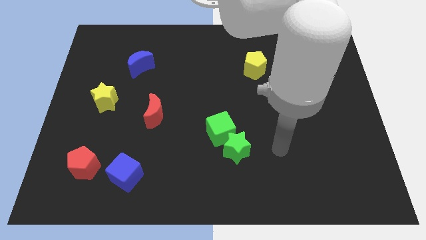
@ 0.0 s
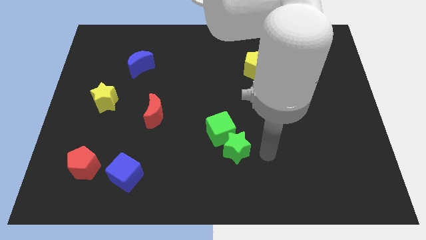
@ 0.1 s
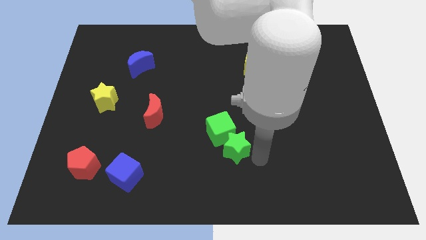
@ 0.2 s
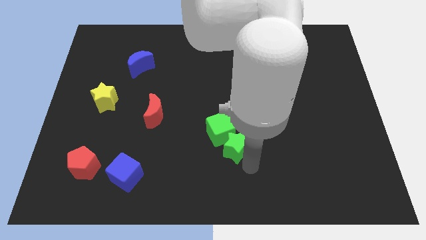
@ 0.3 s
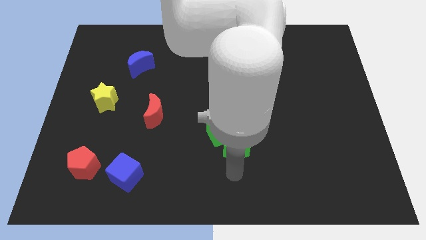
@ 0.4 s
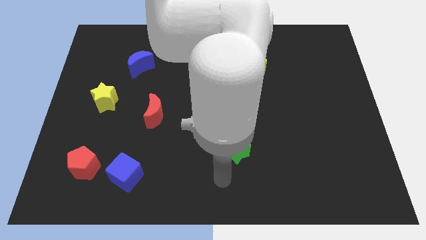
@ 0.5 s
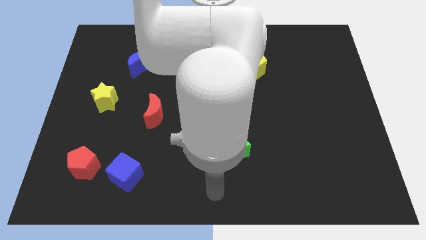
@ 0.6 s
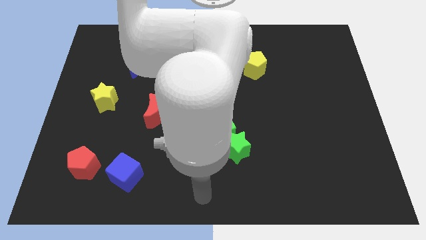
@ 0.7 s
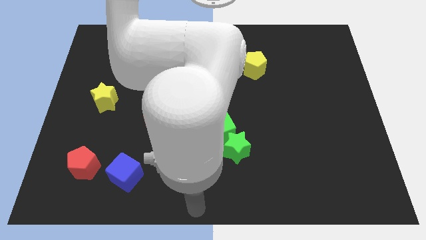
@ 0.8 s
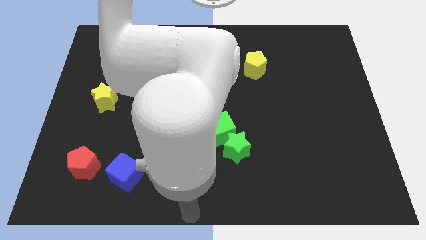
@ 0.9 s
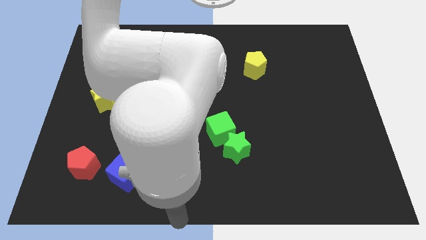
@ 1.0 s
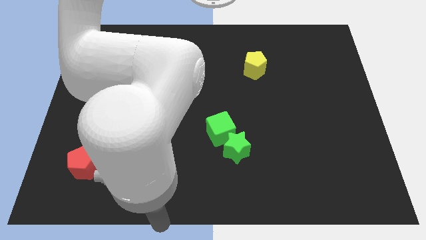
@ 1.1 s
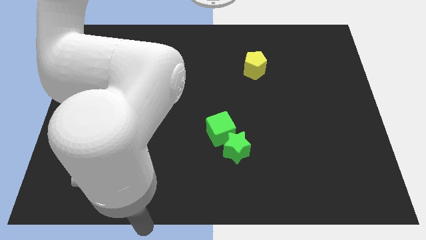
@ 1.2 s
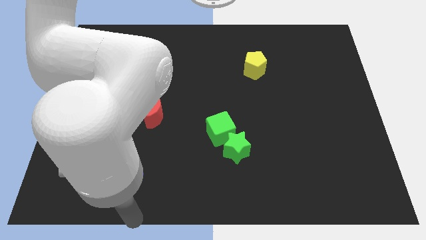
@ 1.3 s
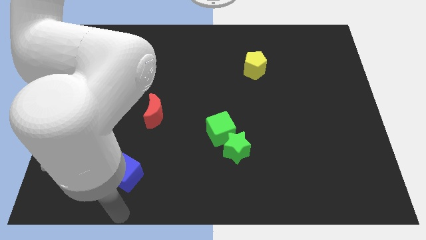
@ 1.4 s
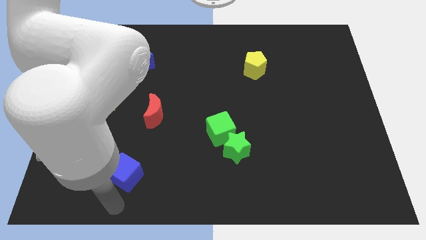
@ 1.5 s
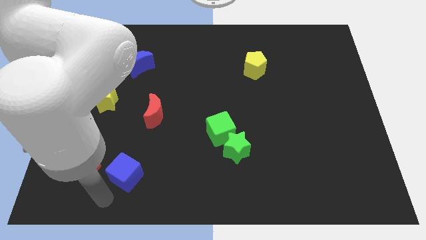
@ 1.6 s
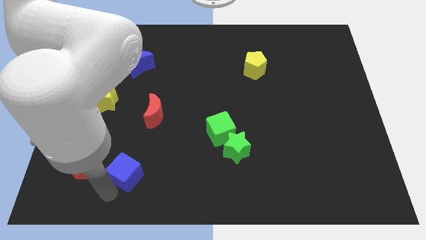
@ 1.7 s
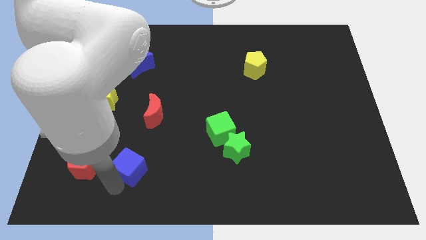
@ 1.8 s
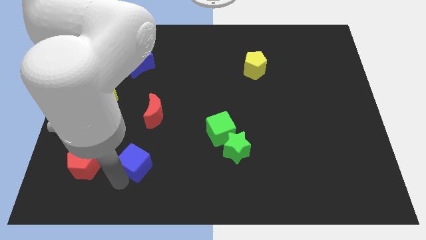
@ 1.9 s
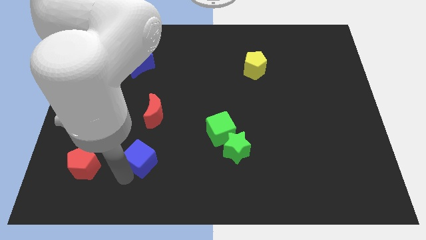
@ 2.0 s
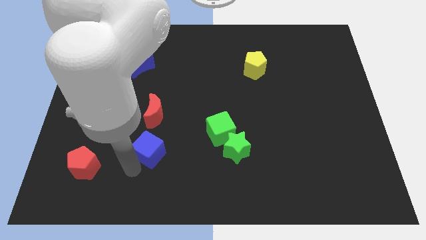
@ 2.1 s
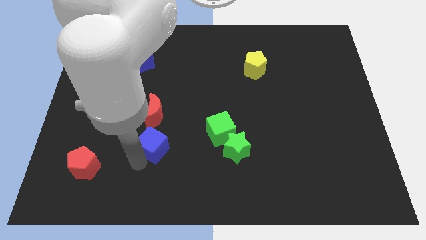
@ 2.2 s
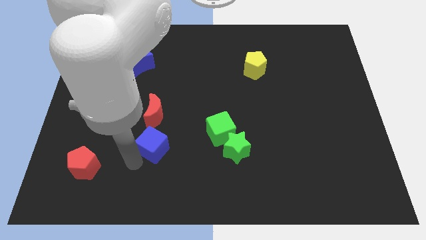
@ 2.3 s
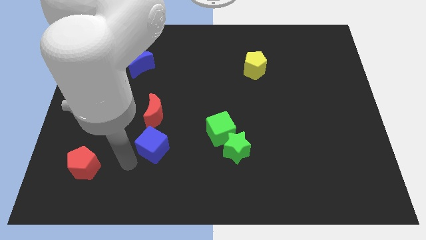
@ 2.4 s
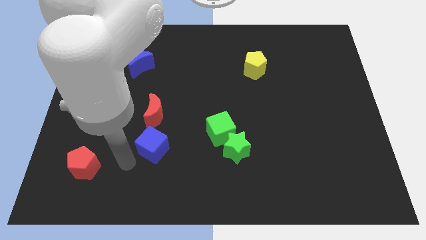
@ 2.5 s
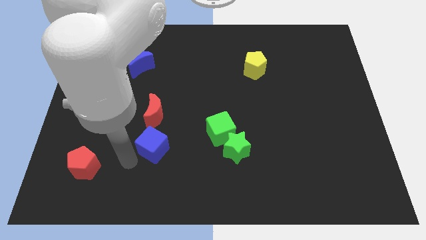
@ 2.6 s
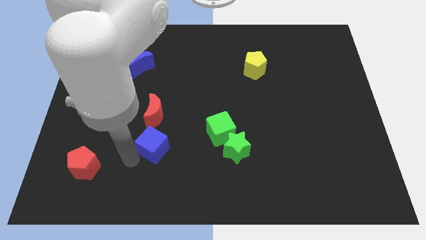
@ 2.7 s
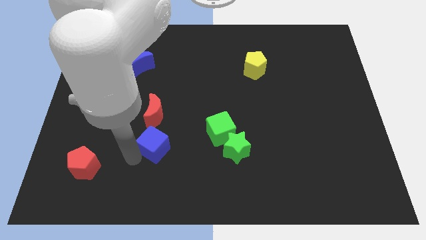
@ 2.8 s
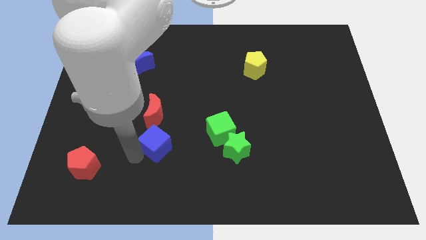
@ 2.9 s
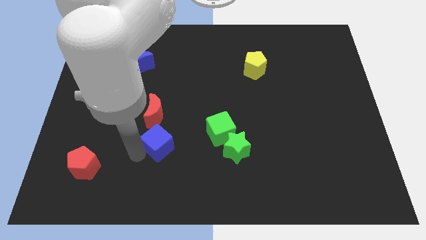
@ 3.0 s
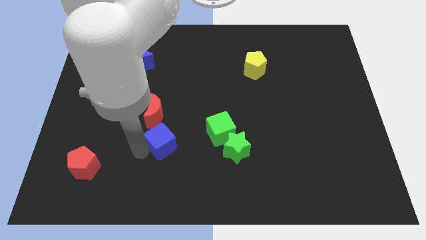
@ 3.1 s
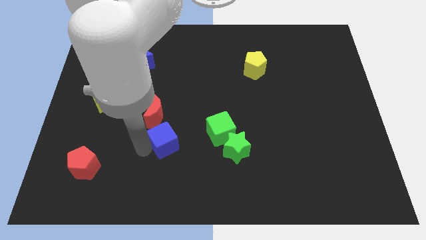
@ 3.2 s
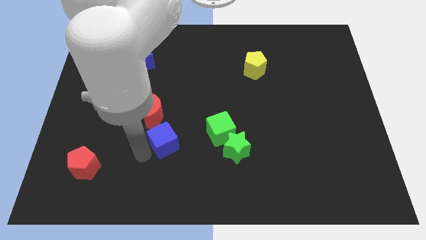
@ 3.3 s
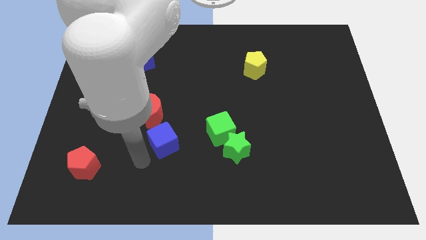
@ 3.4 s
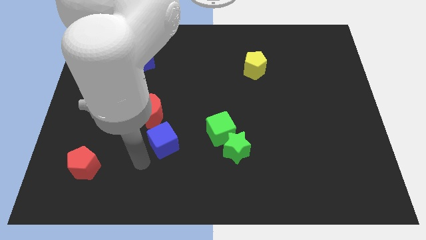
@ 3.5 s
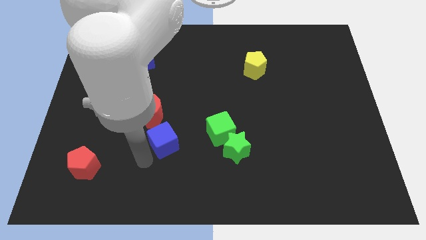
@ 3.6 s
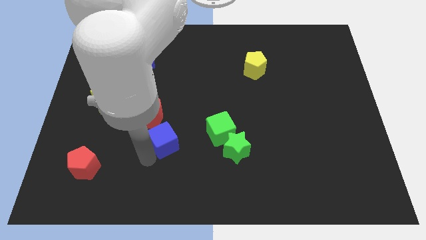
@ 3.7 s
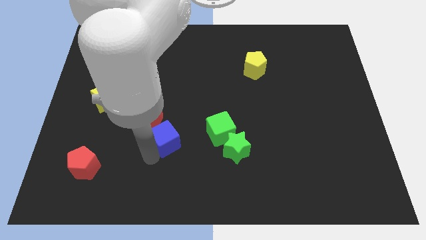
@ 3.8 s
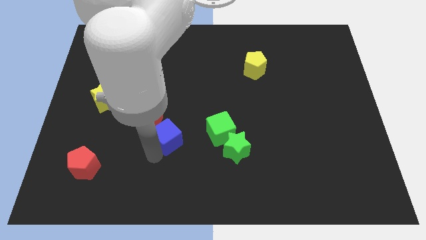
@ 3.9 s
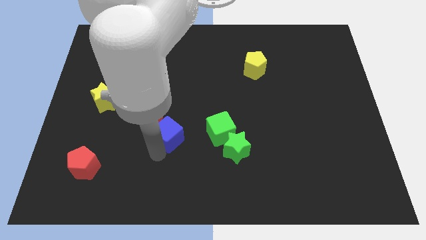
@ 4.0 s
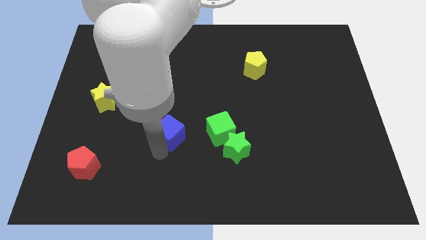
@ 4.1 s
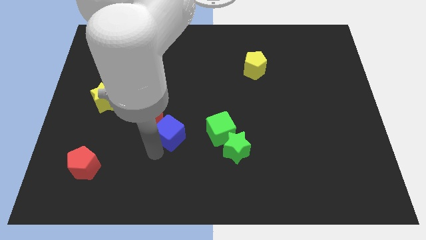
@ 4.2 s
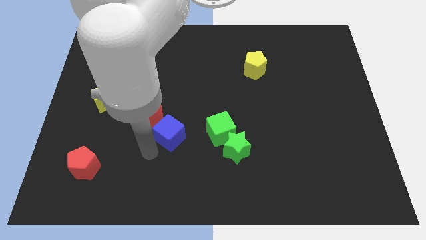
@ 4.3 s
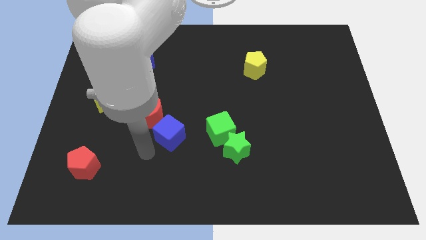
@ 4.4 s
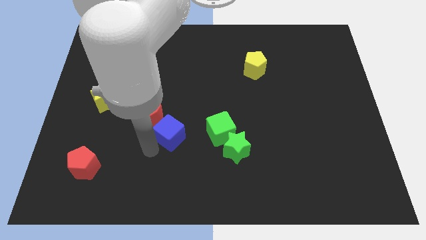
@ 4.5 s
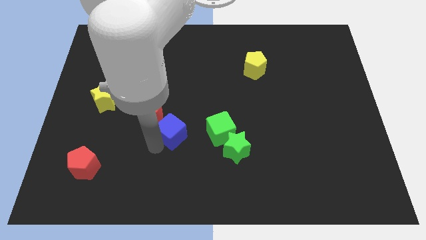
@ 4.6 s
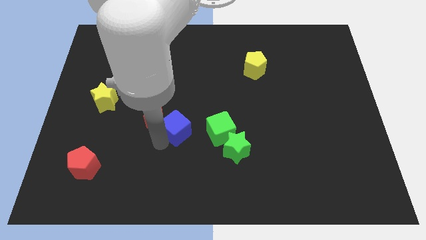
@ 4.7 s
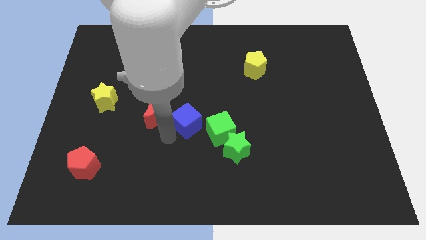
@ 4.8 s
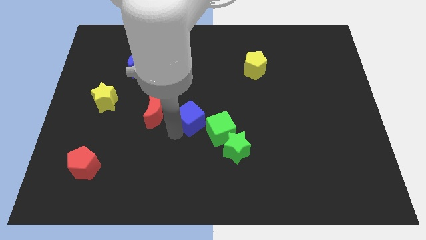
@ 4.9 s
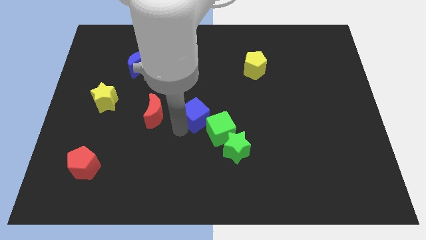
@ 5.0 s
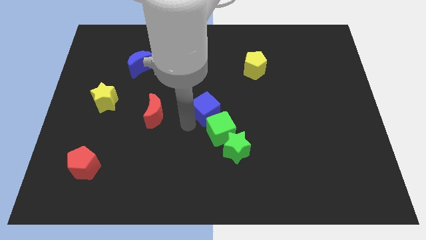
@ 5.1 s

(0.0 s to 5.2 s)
slide the blue cube above the green cube

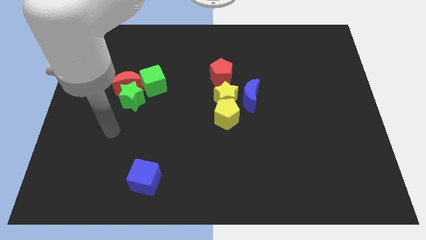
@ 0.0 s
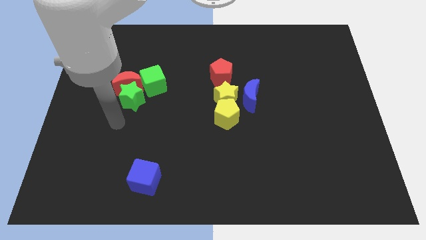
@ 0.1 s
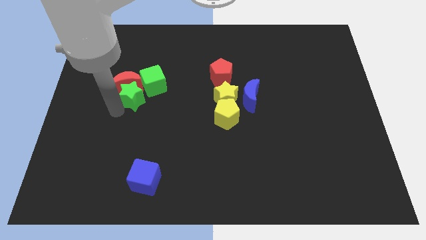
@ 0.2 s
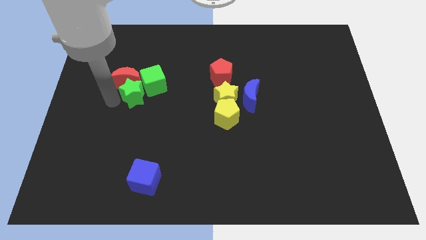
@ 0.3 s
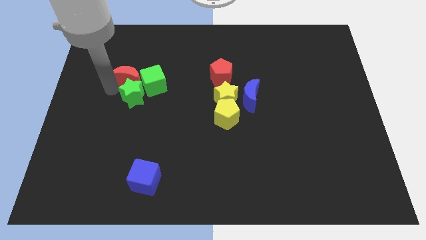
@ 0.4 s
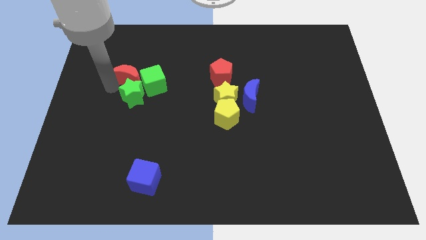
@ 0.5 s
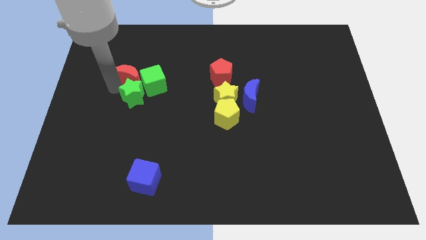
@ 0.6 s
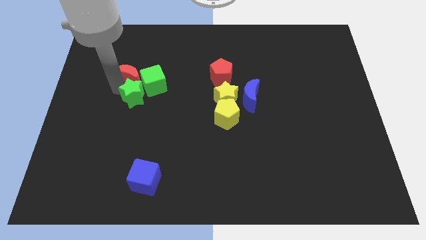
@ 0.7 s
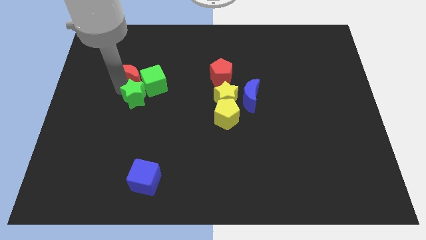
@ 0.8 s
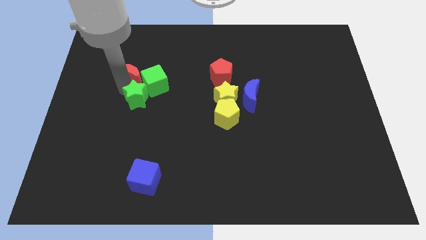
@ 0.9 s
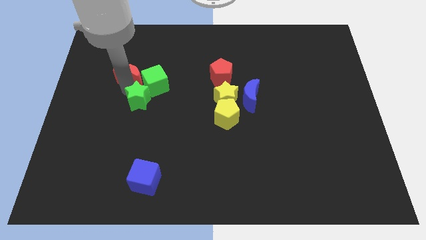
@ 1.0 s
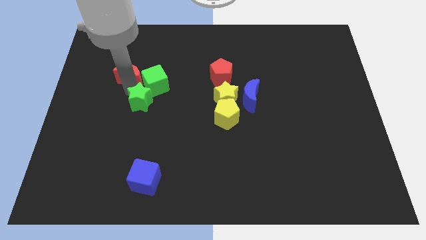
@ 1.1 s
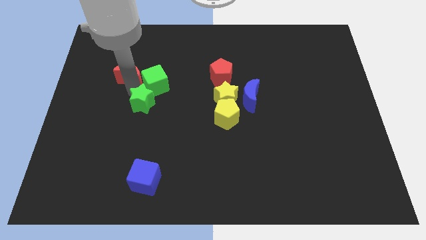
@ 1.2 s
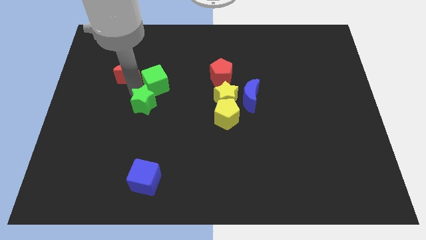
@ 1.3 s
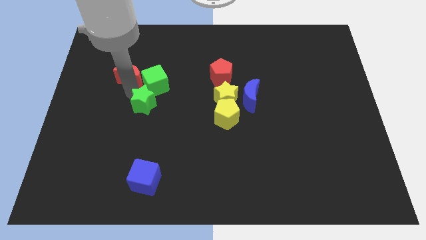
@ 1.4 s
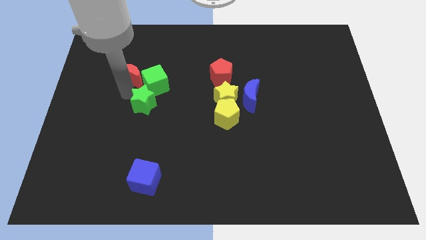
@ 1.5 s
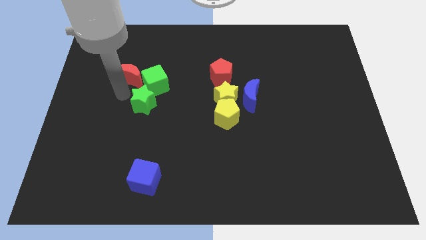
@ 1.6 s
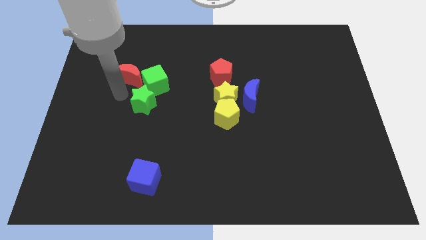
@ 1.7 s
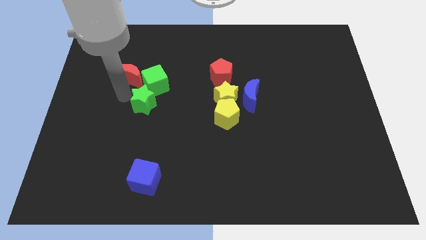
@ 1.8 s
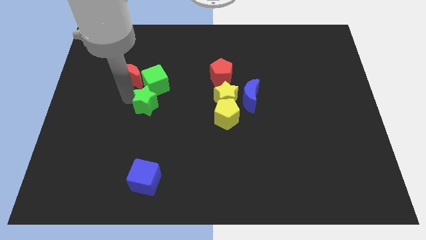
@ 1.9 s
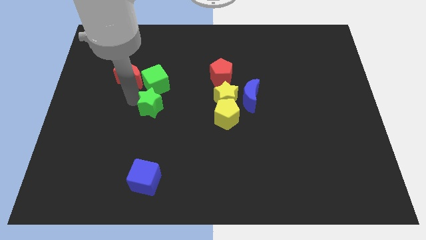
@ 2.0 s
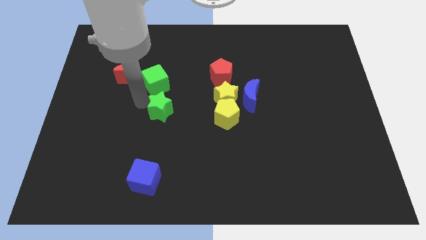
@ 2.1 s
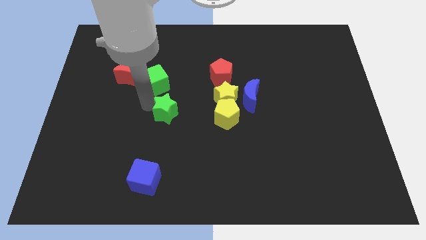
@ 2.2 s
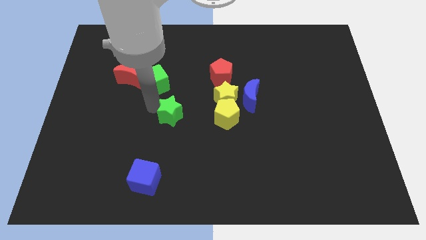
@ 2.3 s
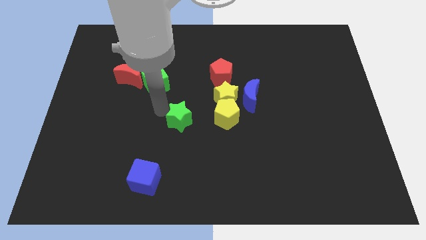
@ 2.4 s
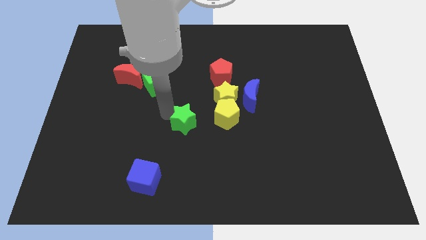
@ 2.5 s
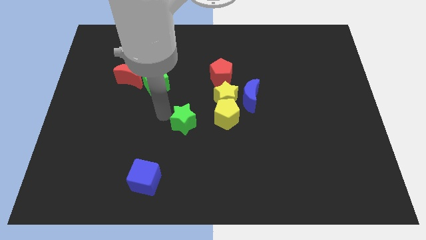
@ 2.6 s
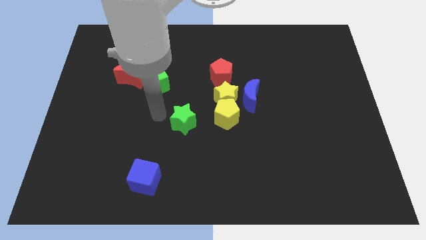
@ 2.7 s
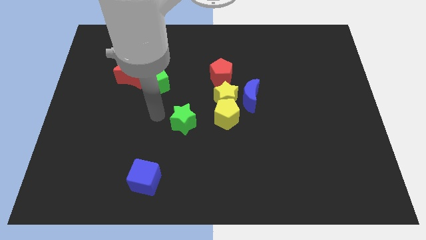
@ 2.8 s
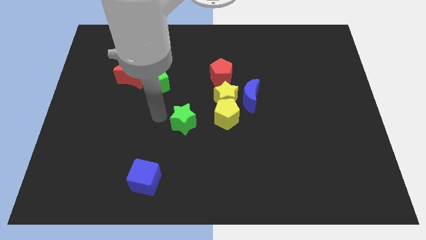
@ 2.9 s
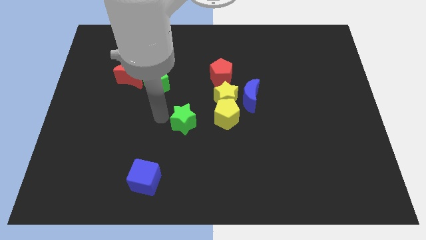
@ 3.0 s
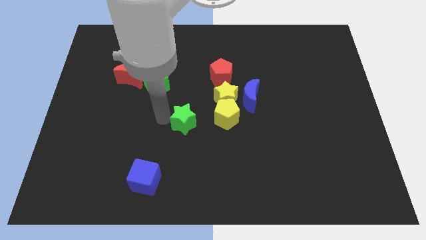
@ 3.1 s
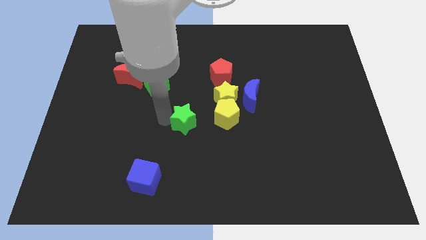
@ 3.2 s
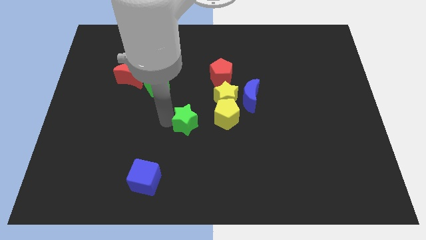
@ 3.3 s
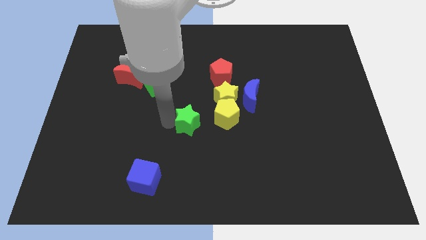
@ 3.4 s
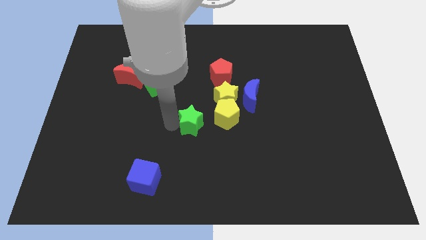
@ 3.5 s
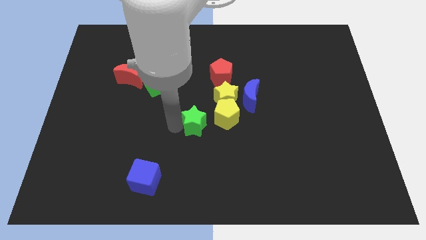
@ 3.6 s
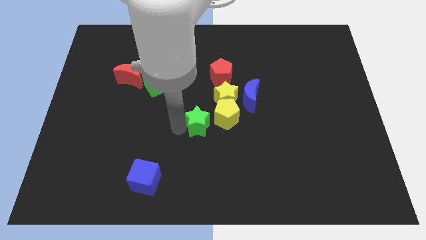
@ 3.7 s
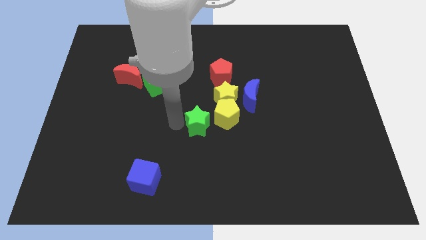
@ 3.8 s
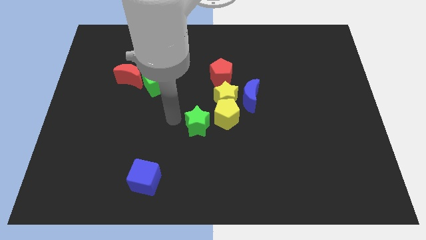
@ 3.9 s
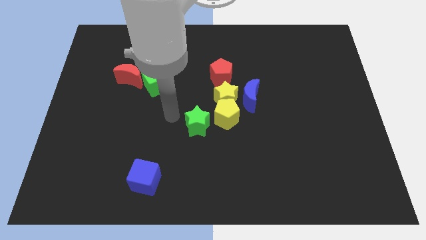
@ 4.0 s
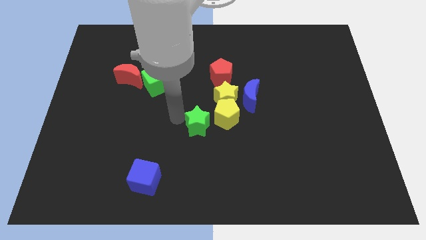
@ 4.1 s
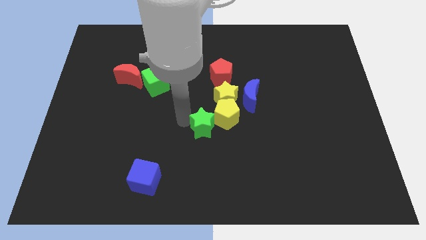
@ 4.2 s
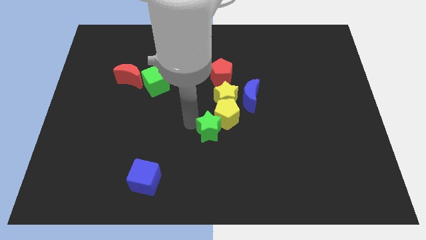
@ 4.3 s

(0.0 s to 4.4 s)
put the green star to the bottom side of the yellow star
